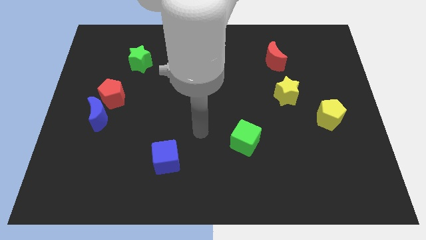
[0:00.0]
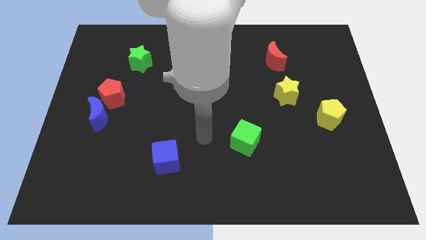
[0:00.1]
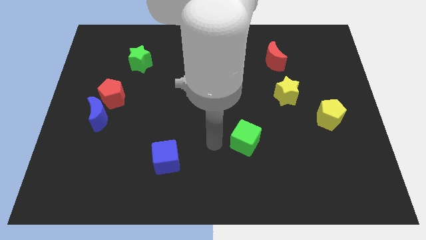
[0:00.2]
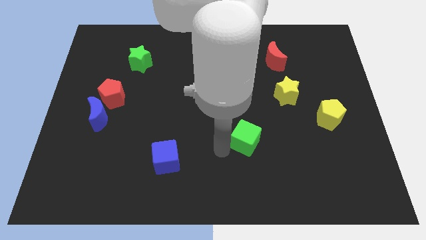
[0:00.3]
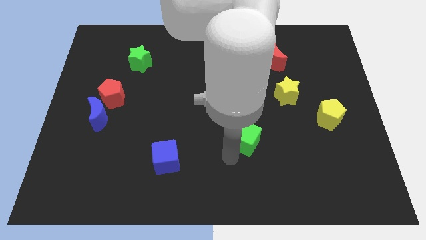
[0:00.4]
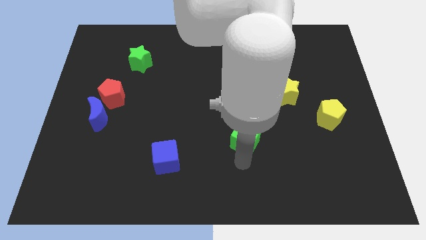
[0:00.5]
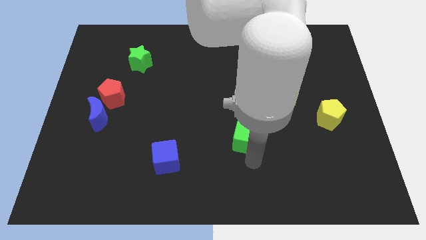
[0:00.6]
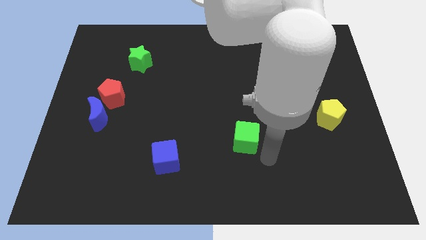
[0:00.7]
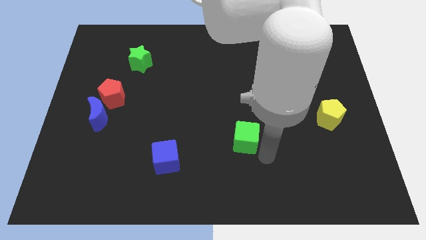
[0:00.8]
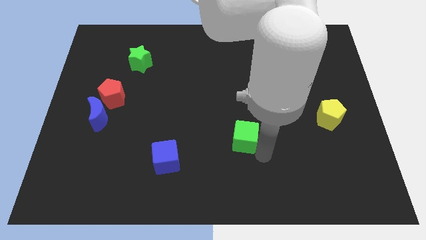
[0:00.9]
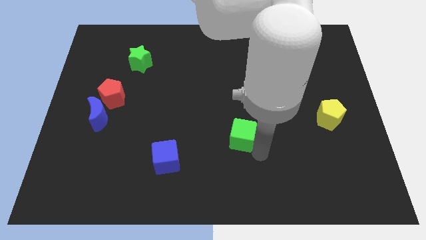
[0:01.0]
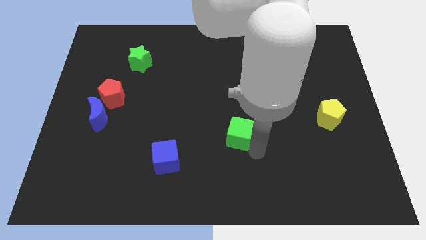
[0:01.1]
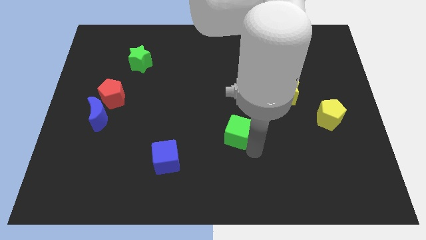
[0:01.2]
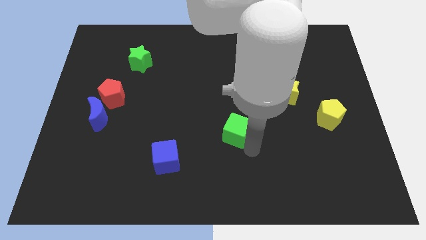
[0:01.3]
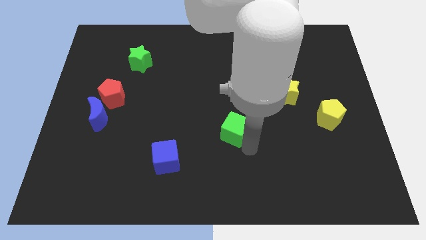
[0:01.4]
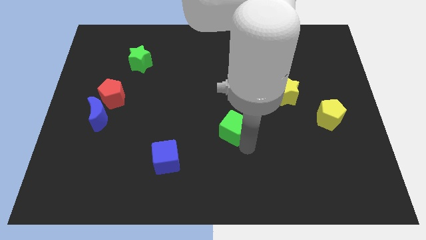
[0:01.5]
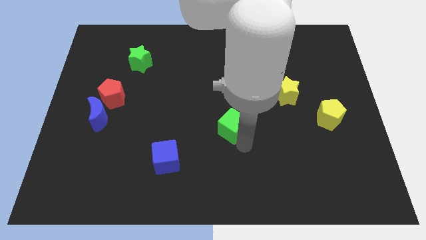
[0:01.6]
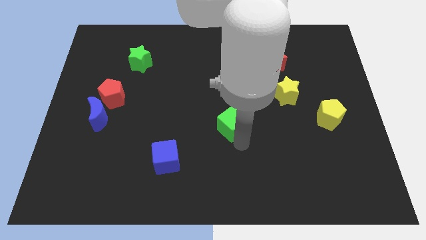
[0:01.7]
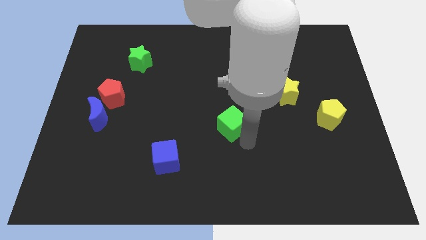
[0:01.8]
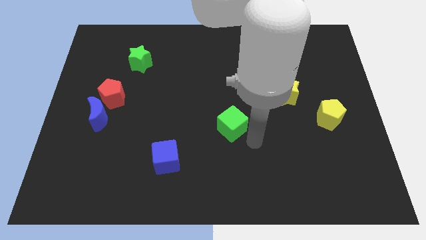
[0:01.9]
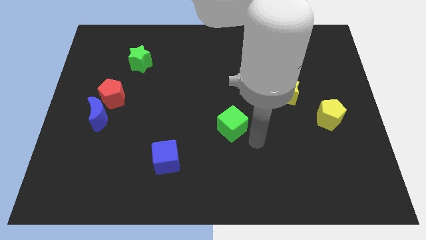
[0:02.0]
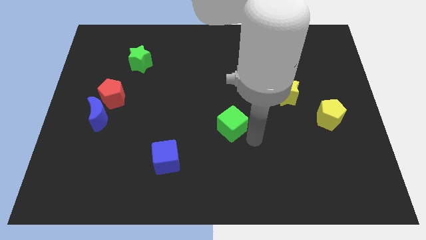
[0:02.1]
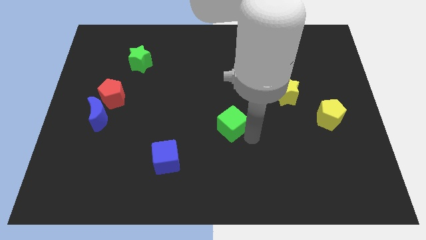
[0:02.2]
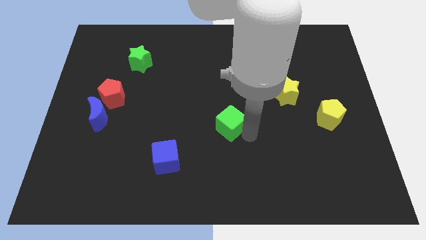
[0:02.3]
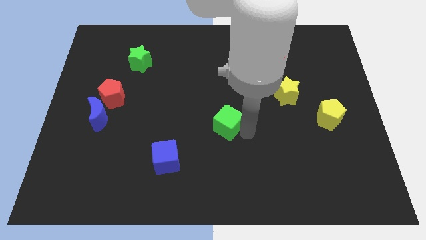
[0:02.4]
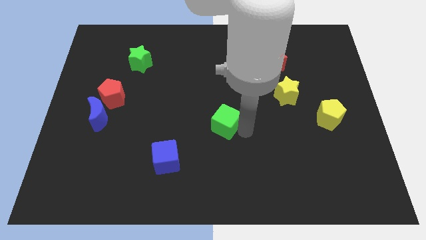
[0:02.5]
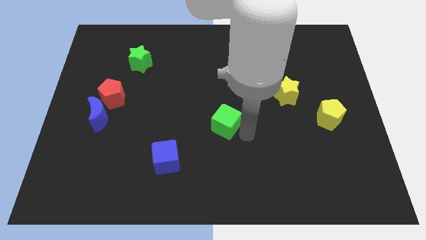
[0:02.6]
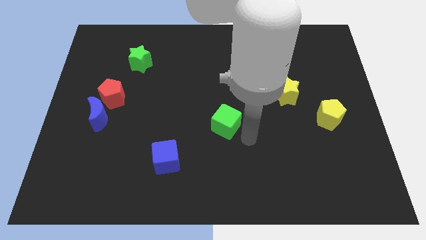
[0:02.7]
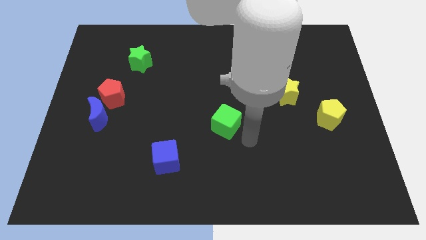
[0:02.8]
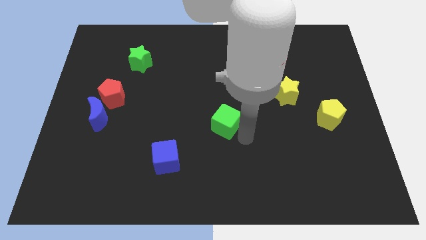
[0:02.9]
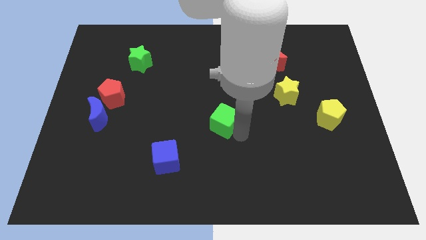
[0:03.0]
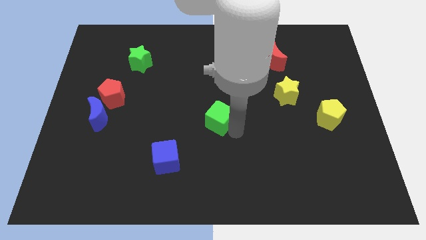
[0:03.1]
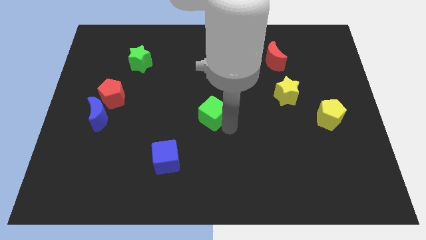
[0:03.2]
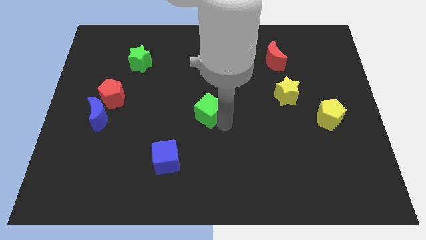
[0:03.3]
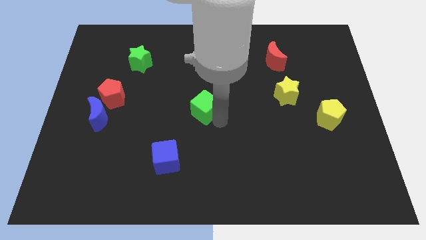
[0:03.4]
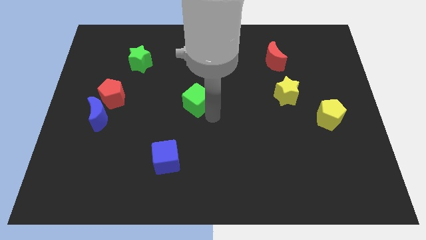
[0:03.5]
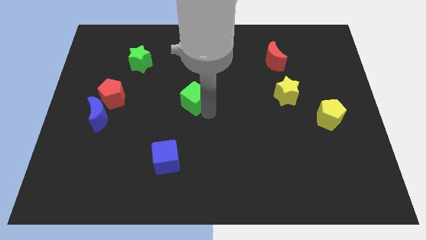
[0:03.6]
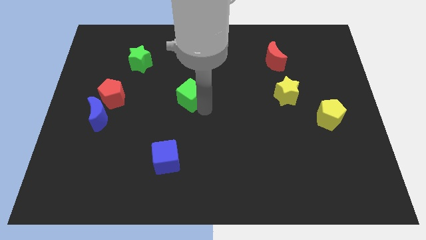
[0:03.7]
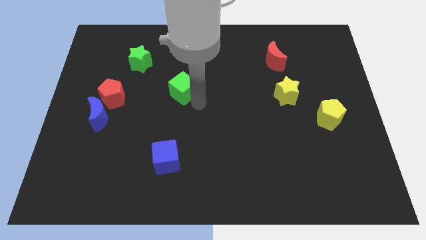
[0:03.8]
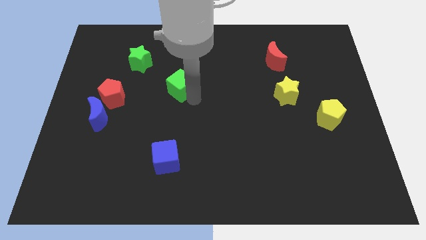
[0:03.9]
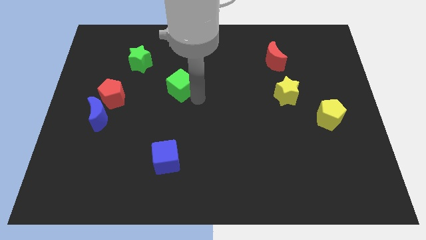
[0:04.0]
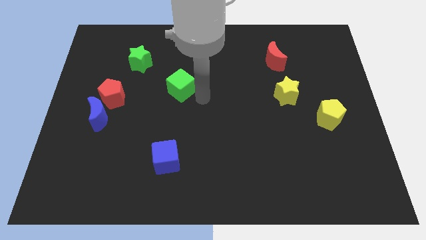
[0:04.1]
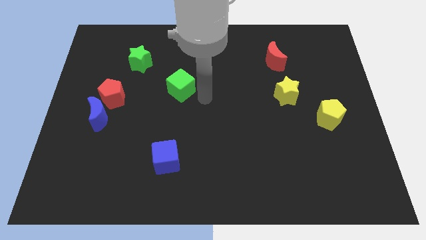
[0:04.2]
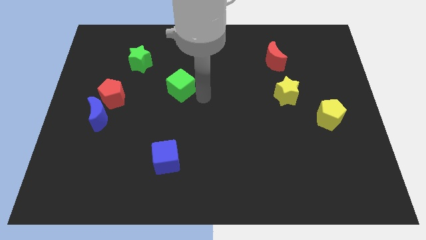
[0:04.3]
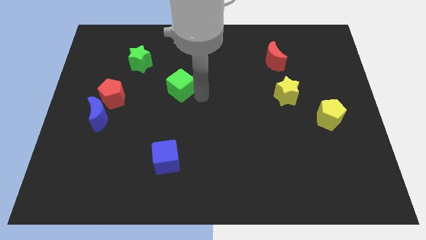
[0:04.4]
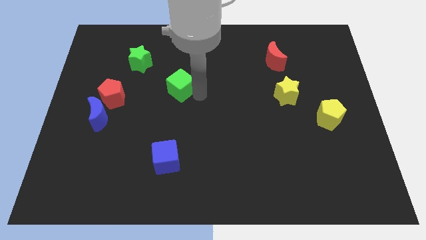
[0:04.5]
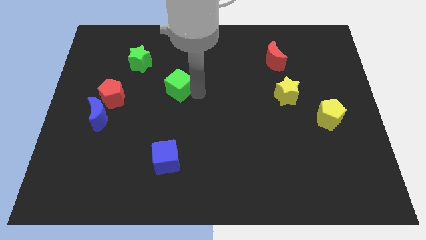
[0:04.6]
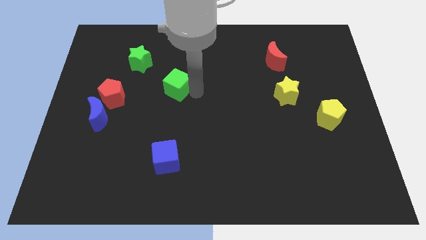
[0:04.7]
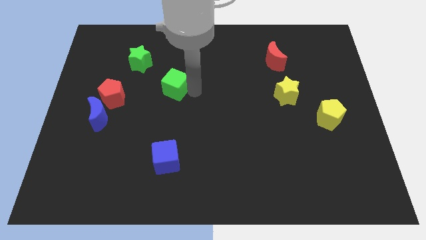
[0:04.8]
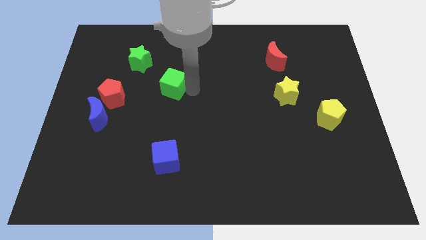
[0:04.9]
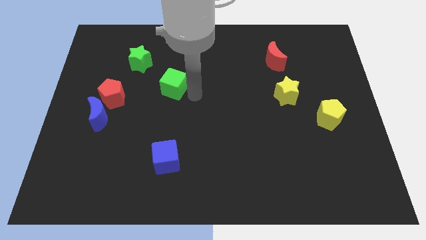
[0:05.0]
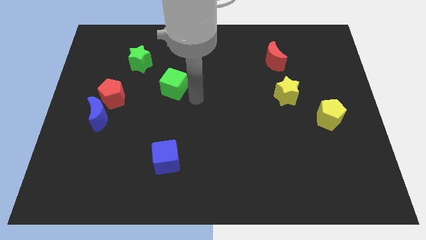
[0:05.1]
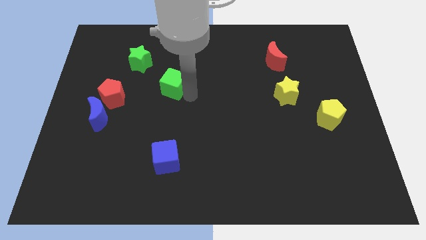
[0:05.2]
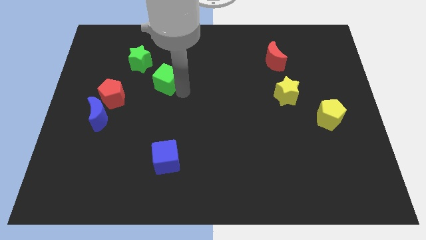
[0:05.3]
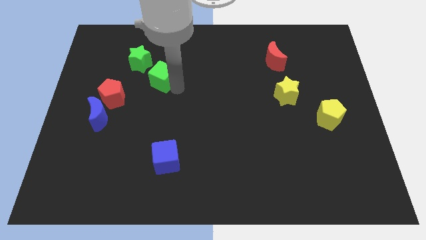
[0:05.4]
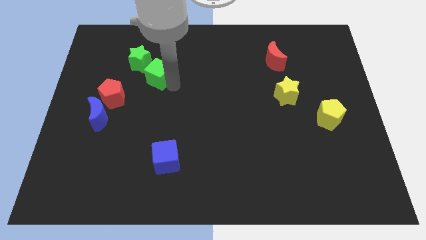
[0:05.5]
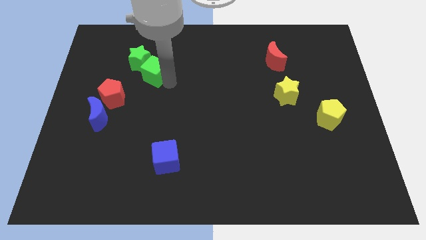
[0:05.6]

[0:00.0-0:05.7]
move the green cube towards the green star
